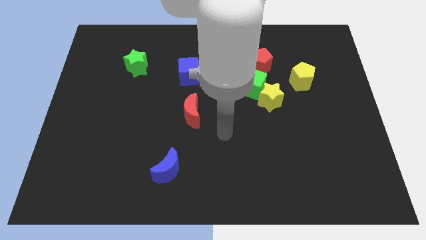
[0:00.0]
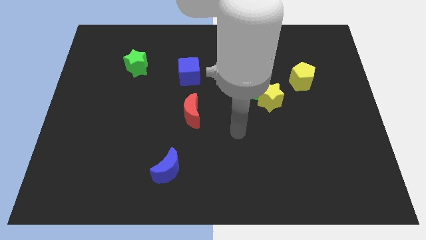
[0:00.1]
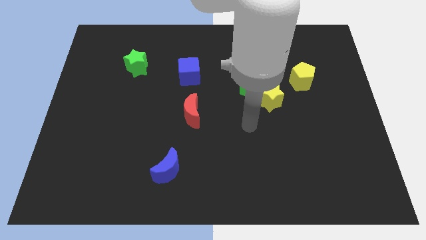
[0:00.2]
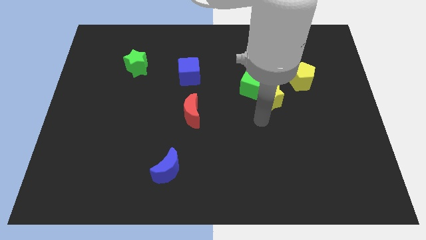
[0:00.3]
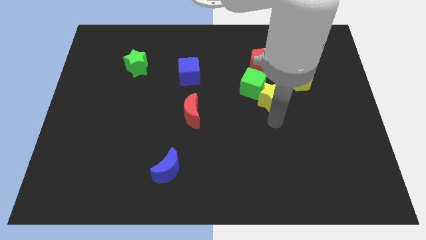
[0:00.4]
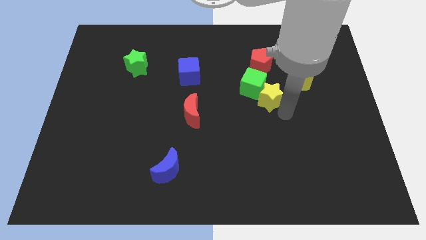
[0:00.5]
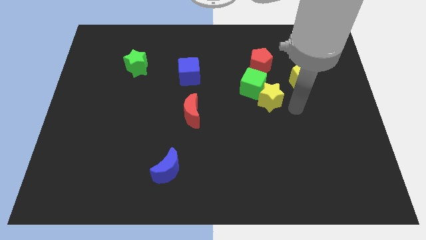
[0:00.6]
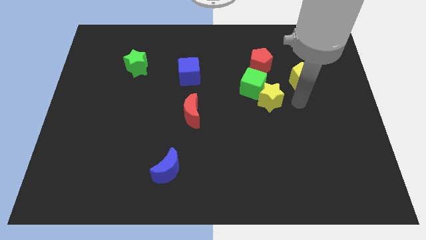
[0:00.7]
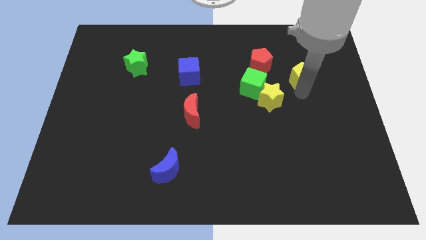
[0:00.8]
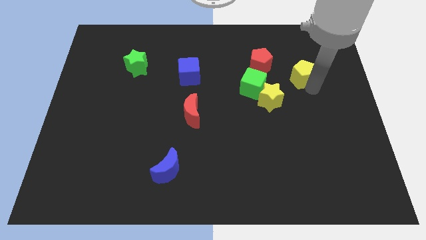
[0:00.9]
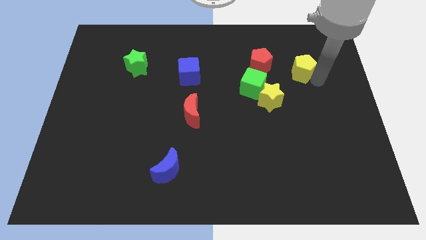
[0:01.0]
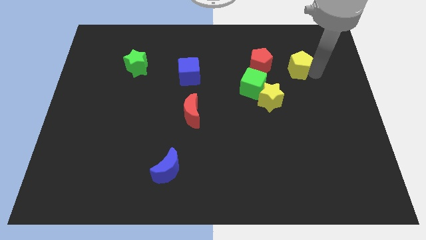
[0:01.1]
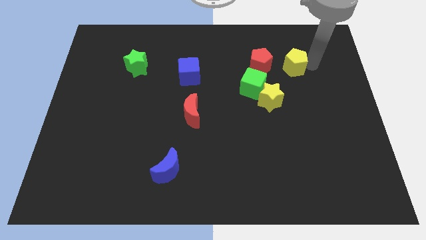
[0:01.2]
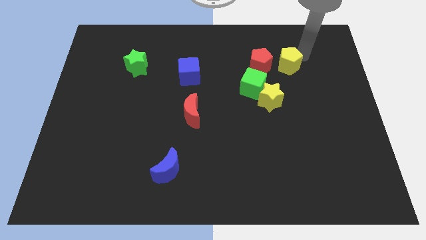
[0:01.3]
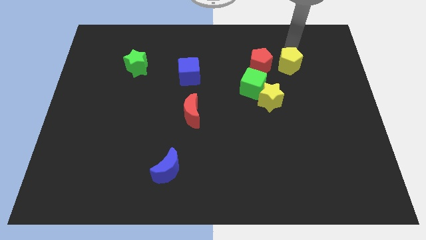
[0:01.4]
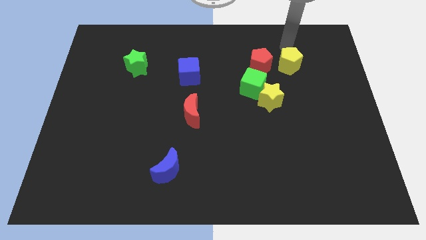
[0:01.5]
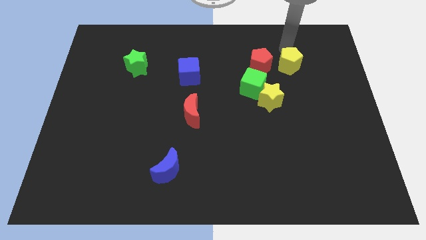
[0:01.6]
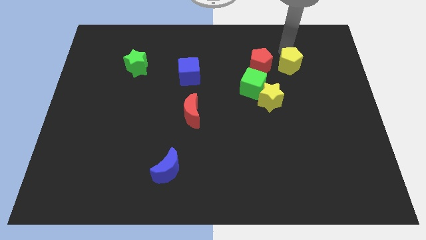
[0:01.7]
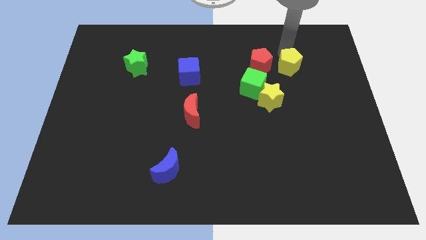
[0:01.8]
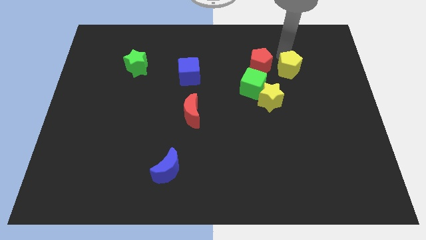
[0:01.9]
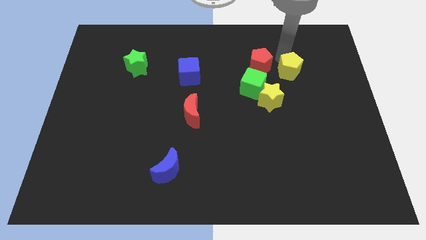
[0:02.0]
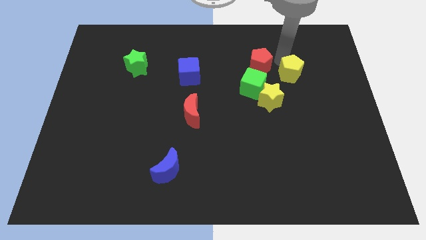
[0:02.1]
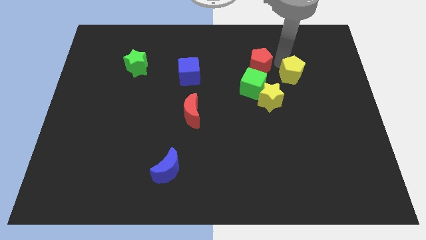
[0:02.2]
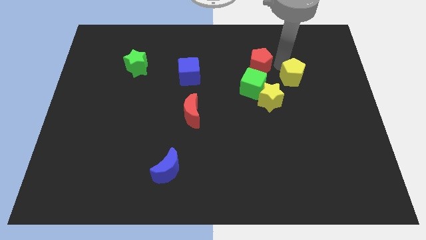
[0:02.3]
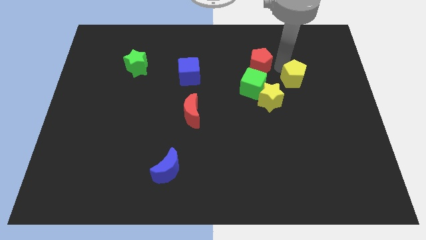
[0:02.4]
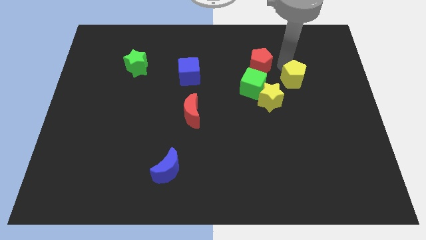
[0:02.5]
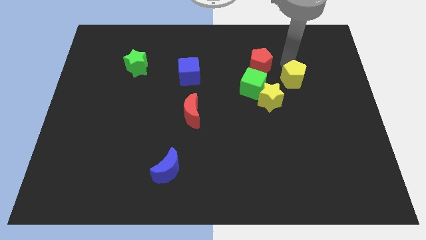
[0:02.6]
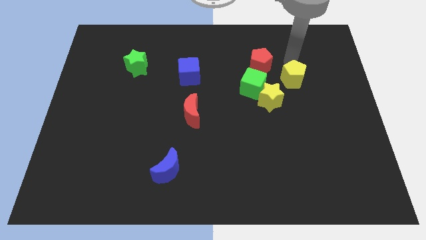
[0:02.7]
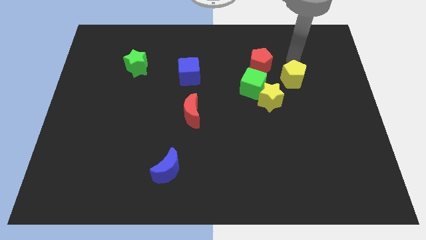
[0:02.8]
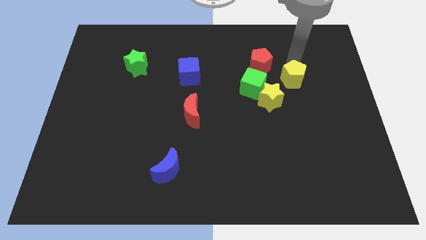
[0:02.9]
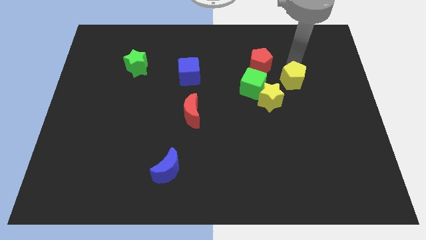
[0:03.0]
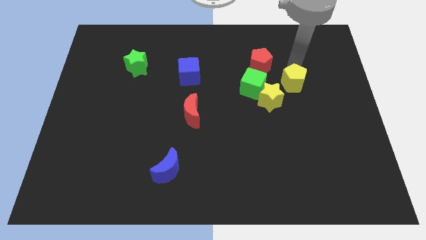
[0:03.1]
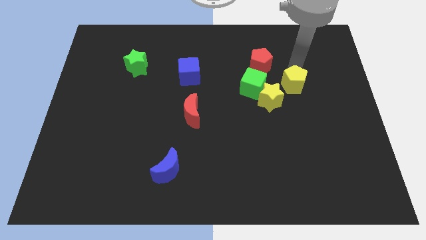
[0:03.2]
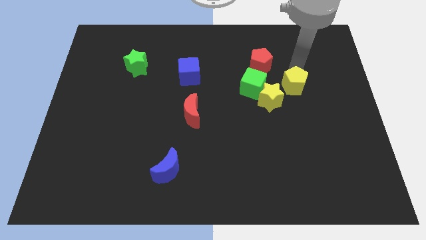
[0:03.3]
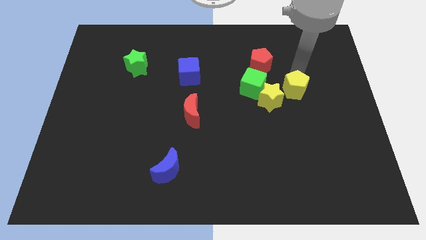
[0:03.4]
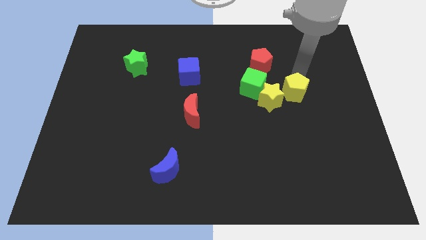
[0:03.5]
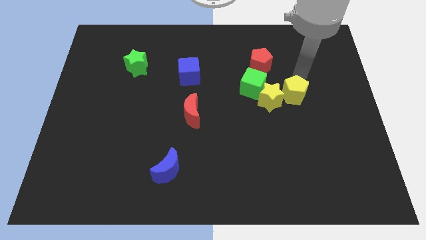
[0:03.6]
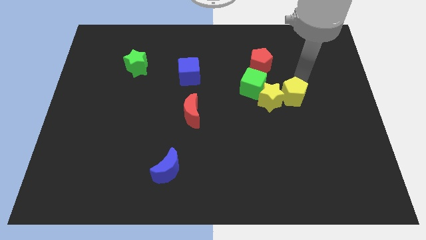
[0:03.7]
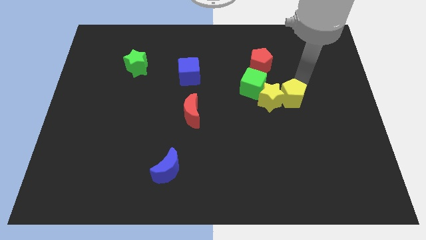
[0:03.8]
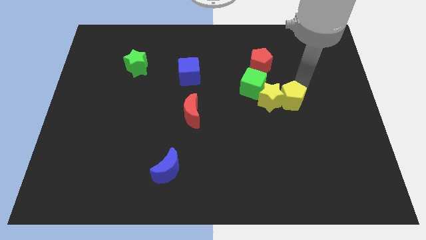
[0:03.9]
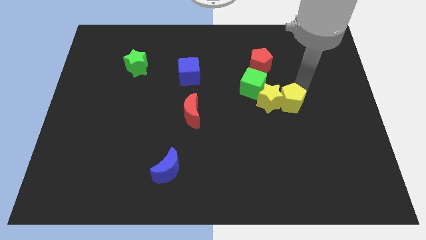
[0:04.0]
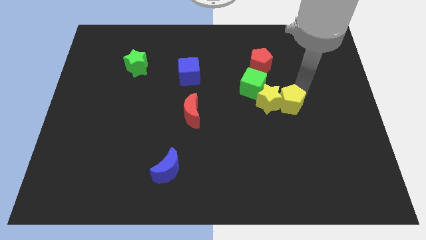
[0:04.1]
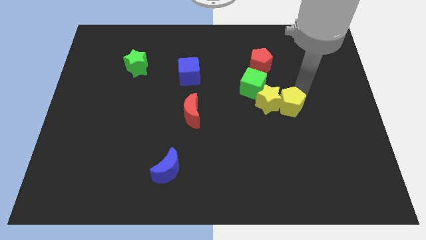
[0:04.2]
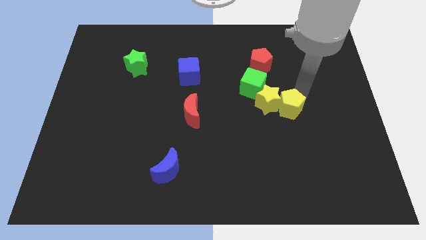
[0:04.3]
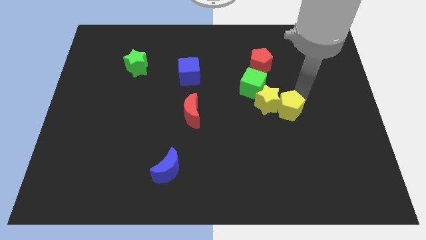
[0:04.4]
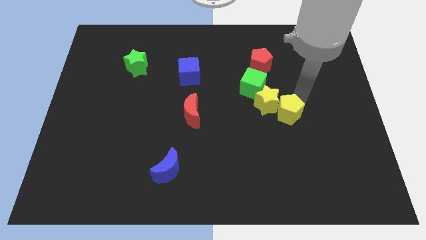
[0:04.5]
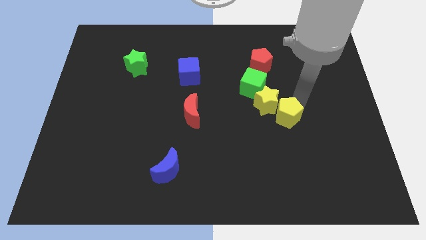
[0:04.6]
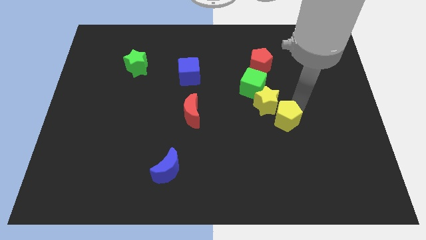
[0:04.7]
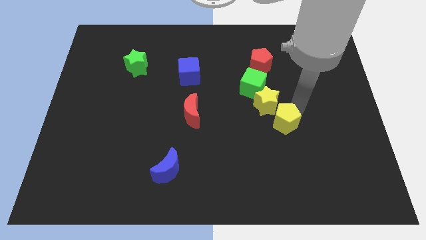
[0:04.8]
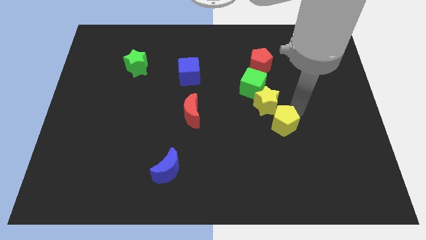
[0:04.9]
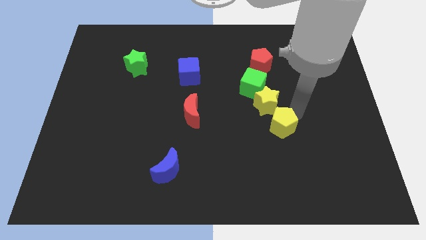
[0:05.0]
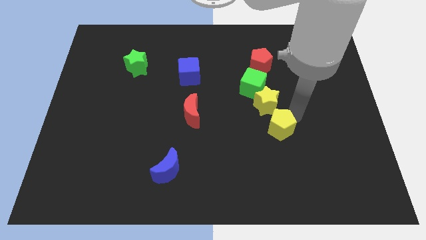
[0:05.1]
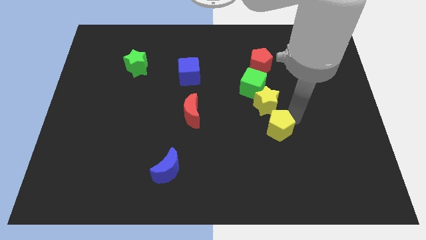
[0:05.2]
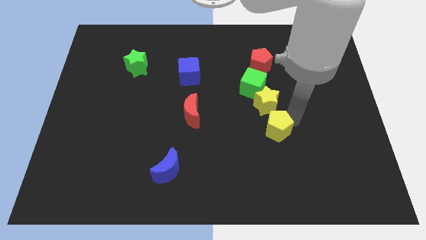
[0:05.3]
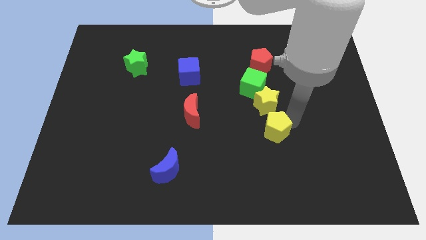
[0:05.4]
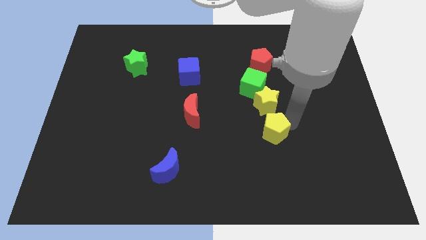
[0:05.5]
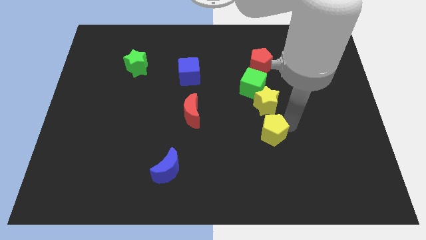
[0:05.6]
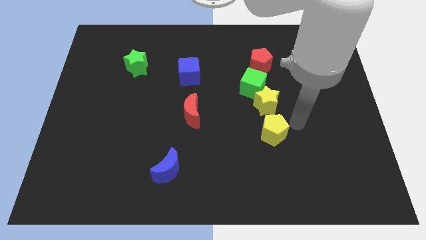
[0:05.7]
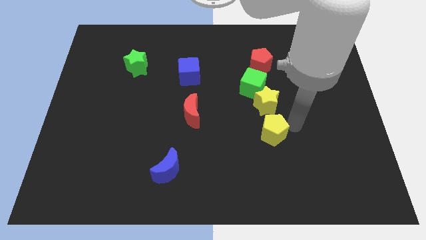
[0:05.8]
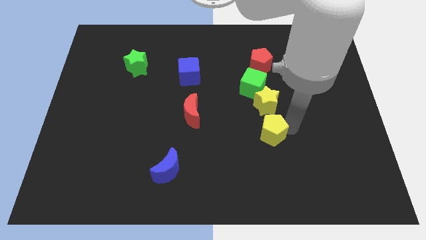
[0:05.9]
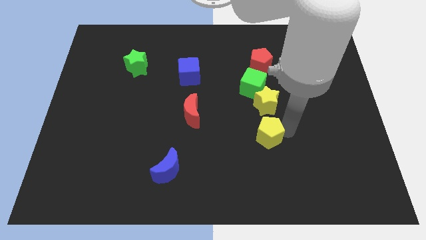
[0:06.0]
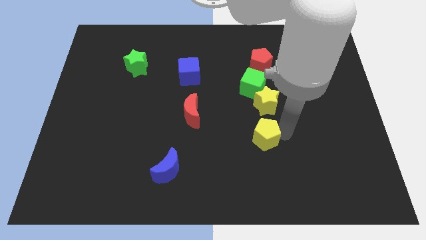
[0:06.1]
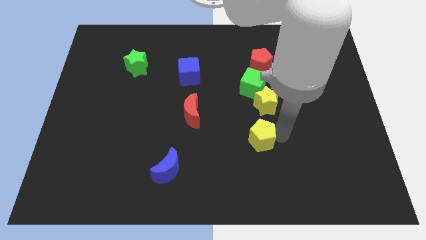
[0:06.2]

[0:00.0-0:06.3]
push the yellow pentagon down and to the left diagonally

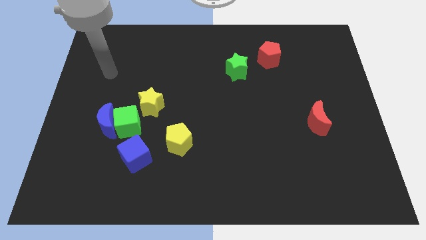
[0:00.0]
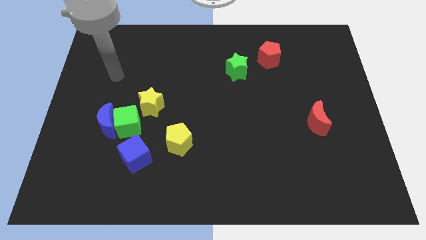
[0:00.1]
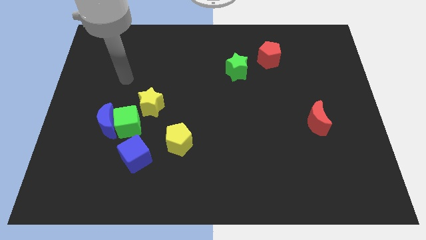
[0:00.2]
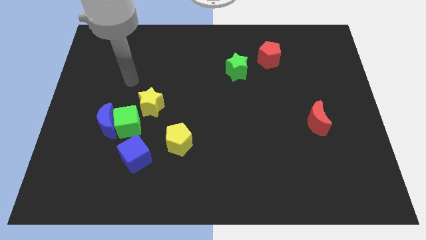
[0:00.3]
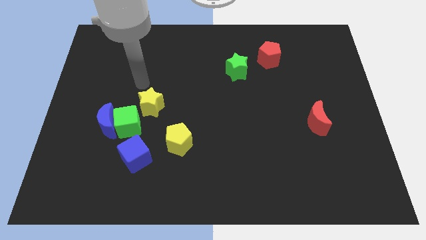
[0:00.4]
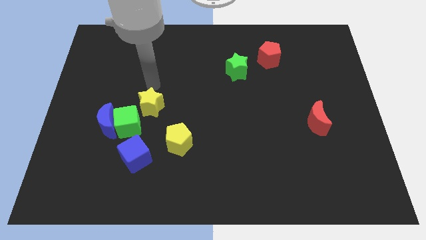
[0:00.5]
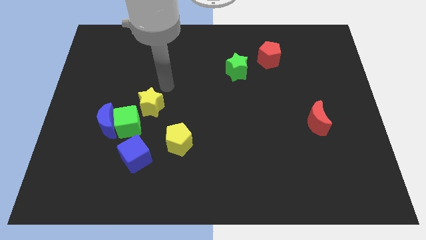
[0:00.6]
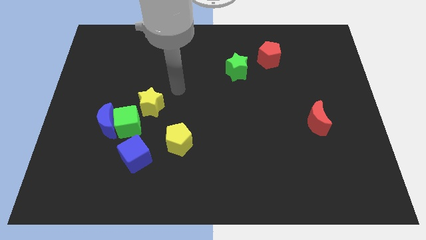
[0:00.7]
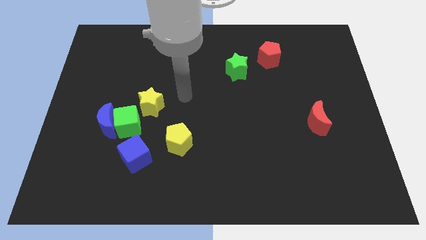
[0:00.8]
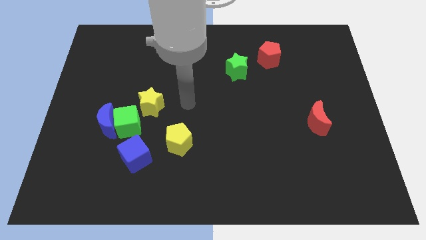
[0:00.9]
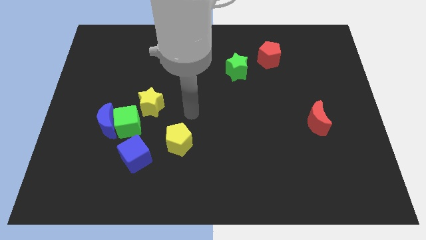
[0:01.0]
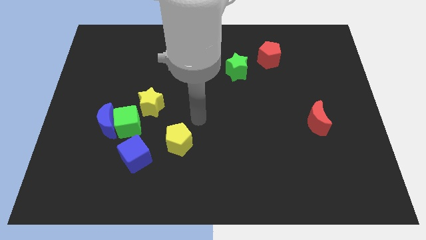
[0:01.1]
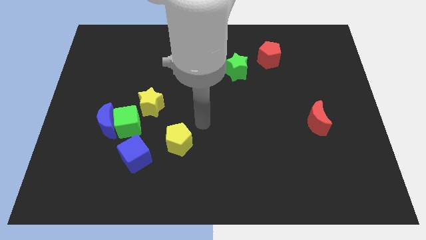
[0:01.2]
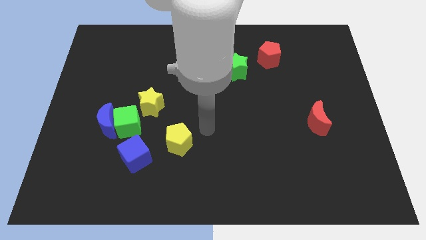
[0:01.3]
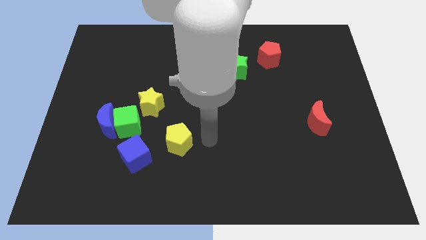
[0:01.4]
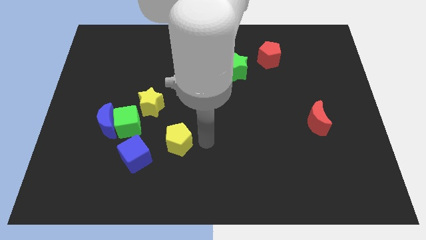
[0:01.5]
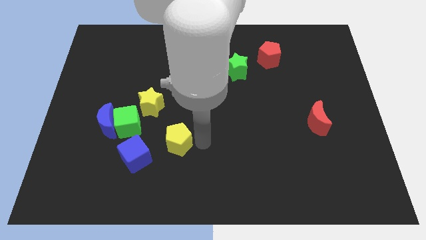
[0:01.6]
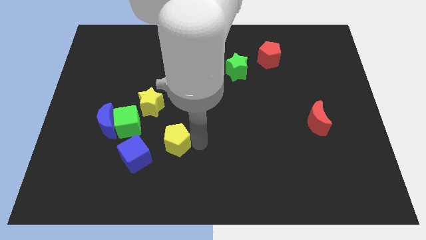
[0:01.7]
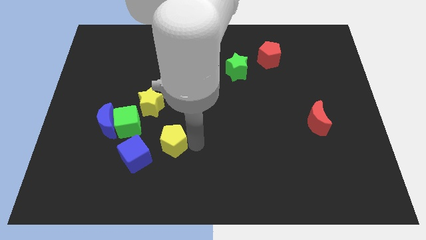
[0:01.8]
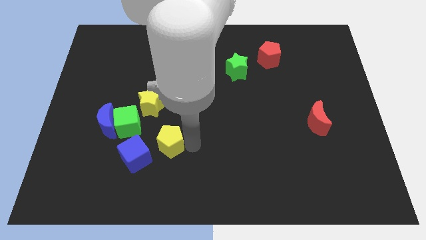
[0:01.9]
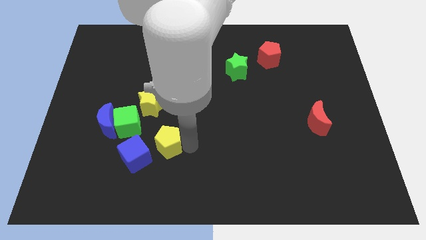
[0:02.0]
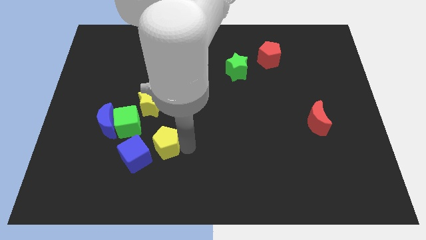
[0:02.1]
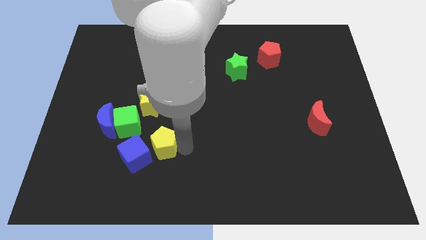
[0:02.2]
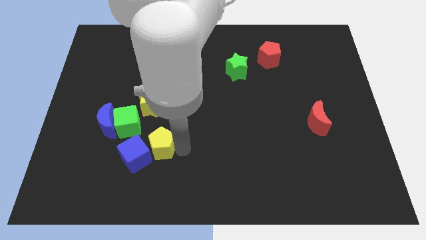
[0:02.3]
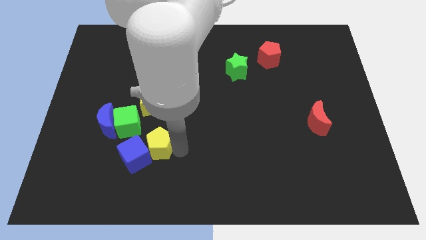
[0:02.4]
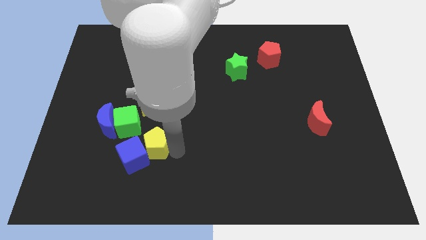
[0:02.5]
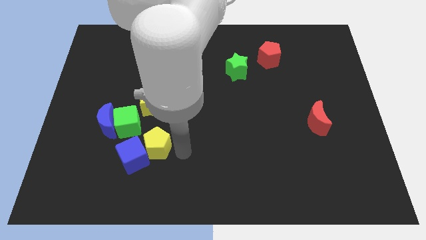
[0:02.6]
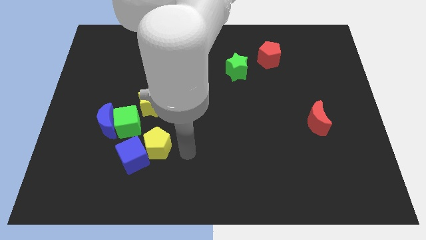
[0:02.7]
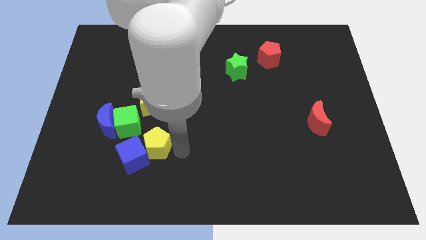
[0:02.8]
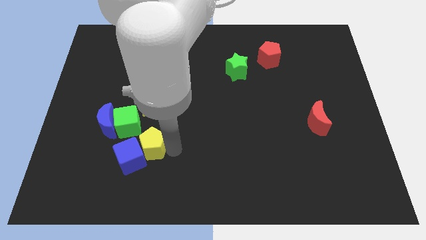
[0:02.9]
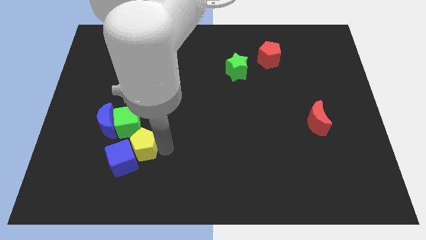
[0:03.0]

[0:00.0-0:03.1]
move the yellow pentagon left slightly
